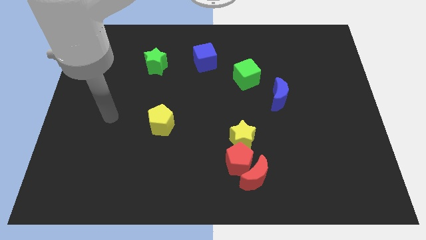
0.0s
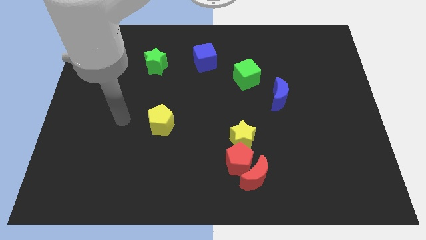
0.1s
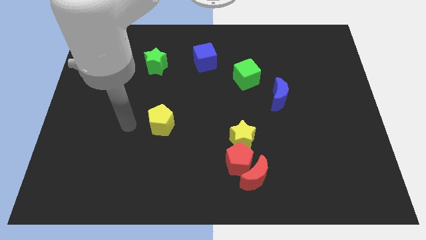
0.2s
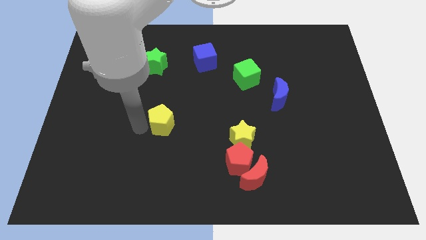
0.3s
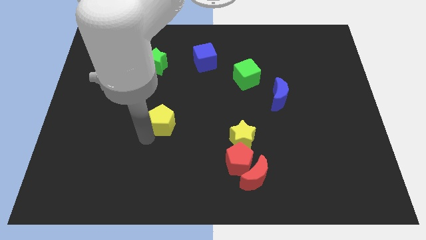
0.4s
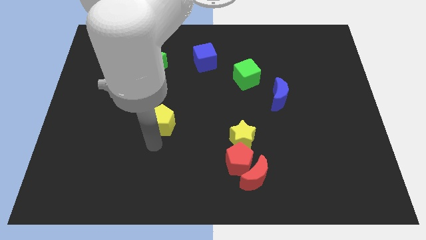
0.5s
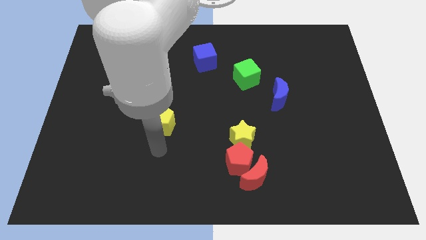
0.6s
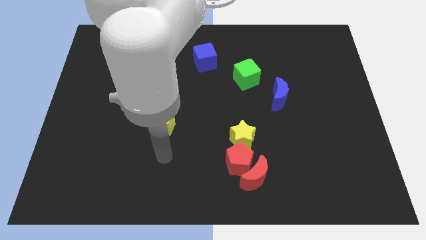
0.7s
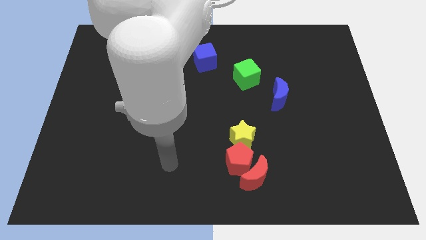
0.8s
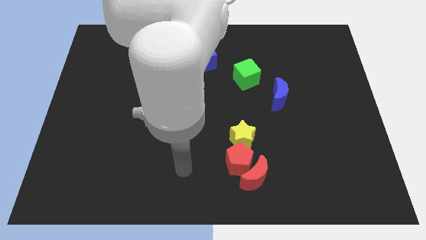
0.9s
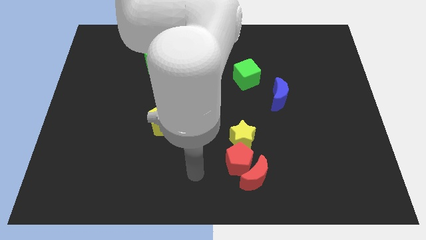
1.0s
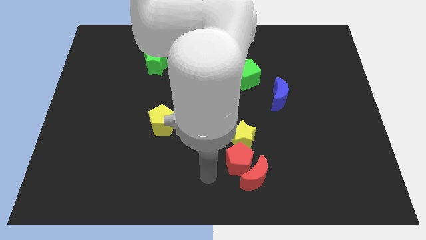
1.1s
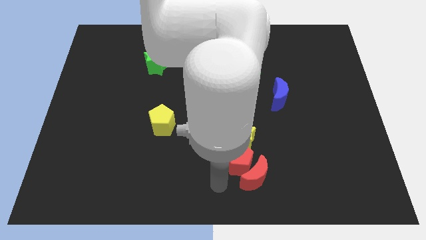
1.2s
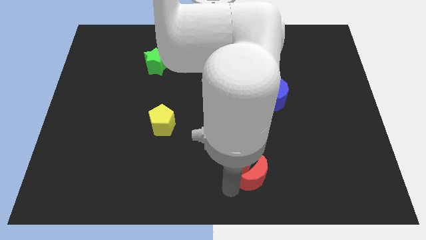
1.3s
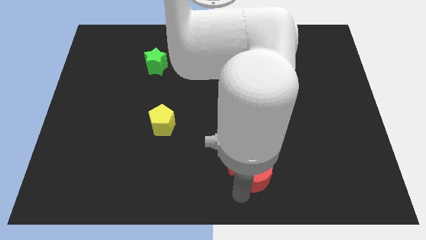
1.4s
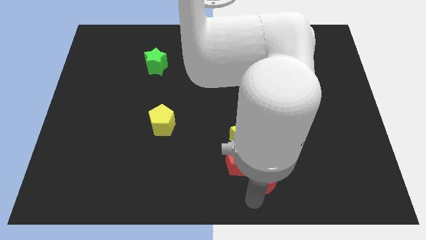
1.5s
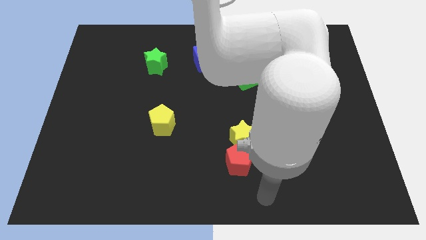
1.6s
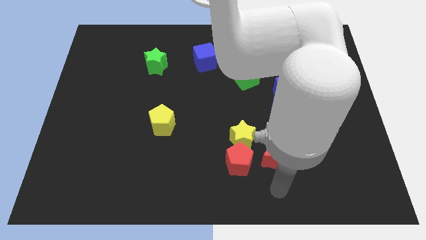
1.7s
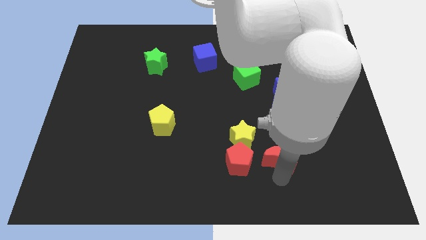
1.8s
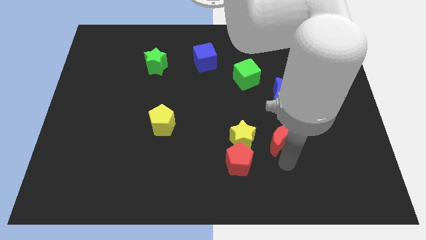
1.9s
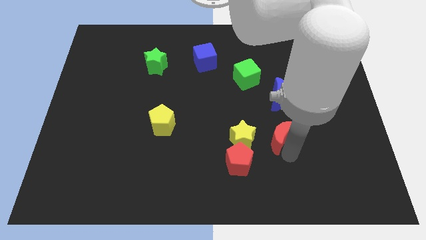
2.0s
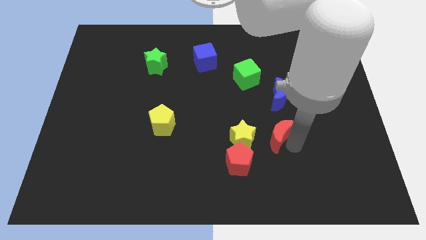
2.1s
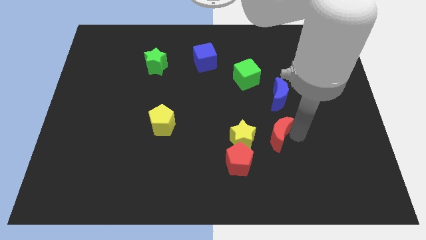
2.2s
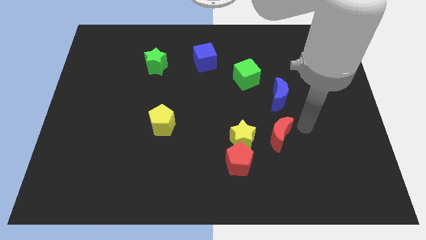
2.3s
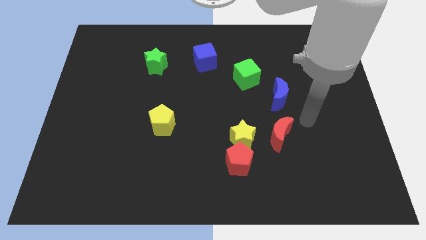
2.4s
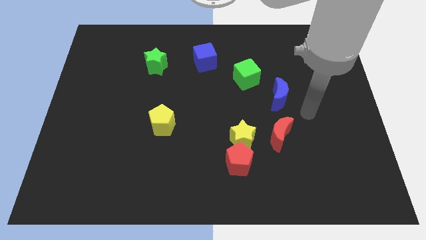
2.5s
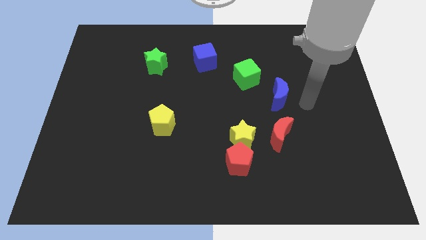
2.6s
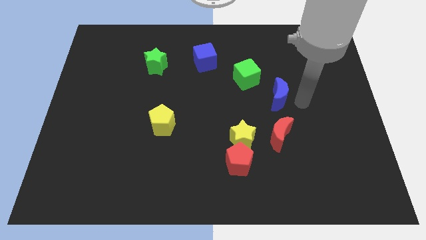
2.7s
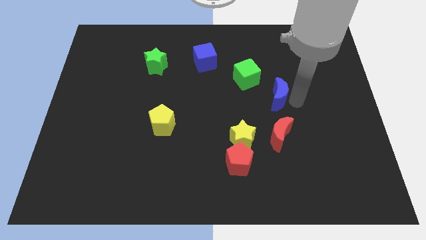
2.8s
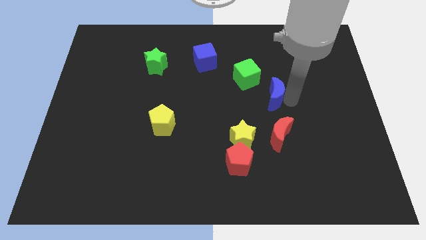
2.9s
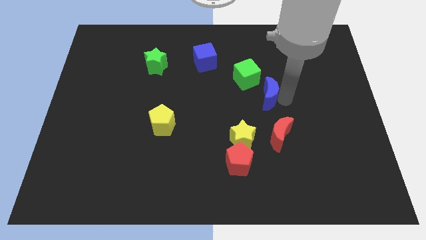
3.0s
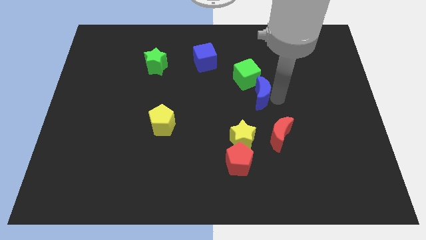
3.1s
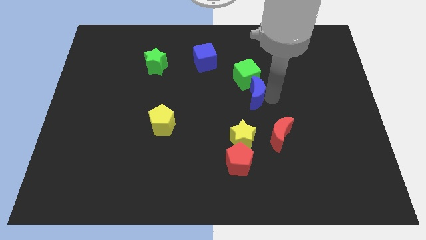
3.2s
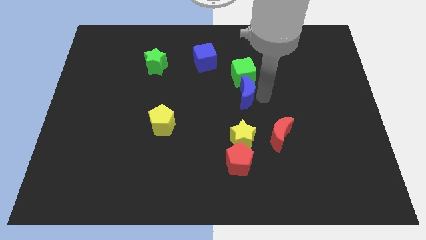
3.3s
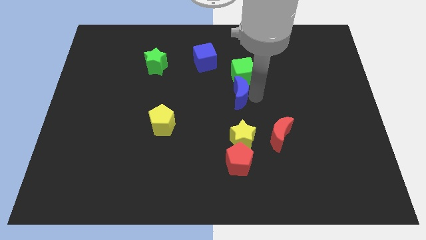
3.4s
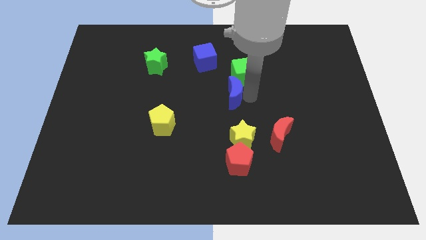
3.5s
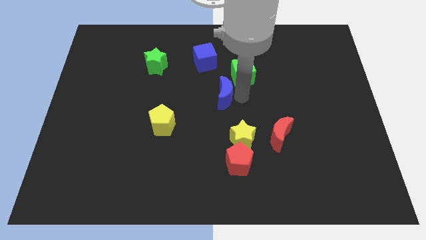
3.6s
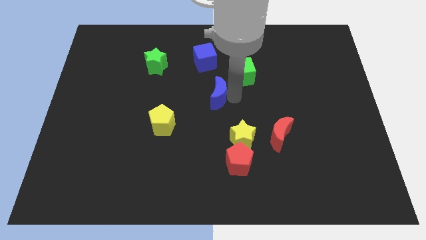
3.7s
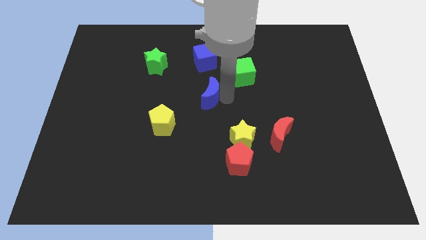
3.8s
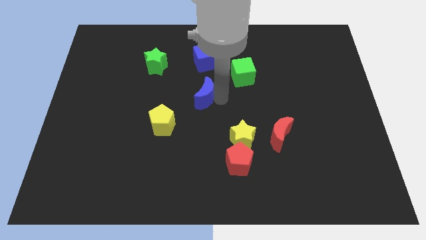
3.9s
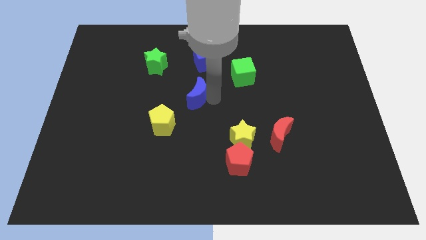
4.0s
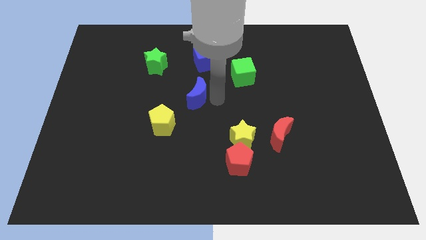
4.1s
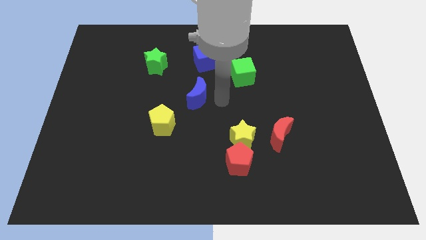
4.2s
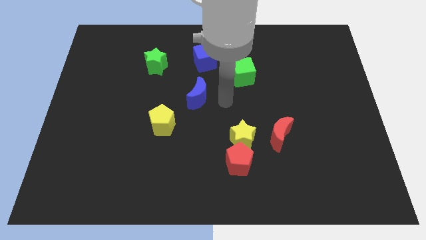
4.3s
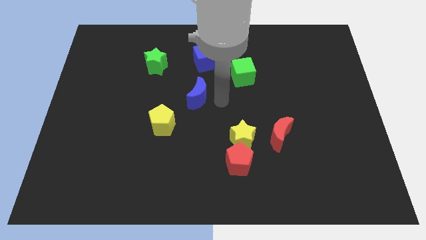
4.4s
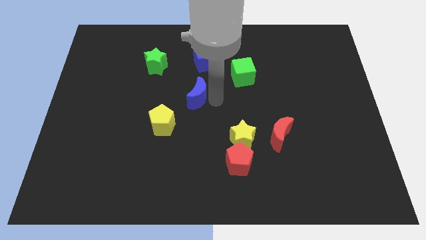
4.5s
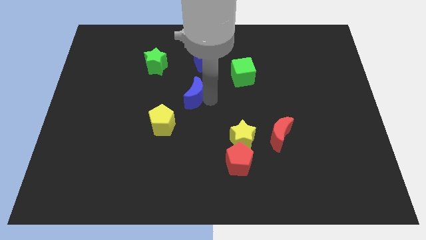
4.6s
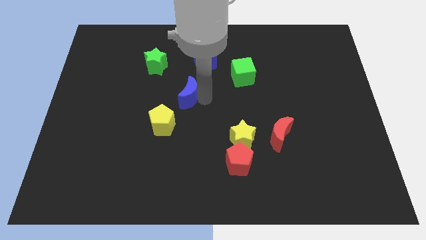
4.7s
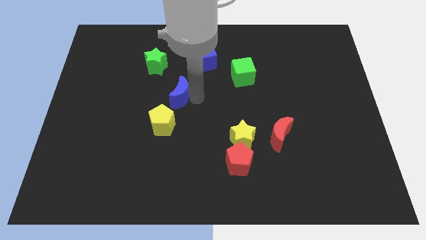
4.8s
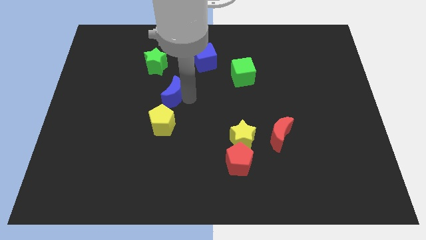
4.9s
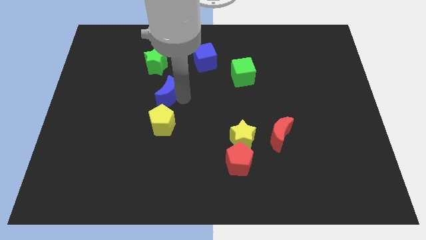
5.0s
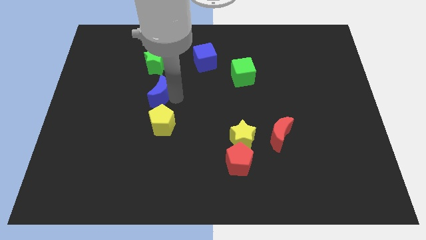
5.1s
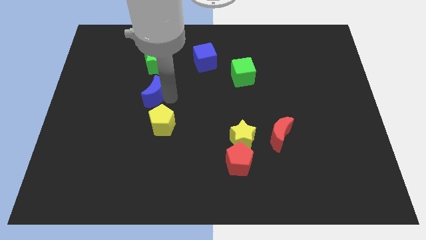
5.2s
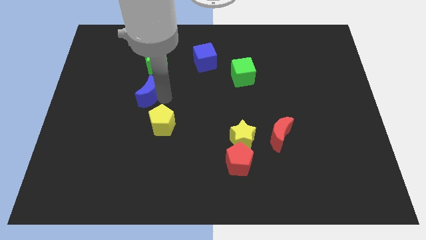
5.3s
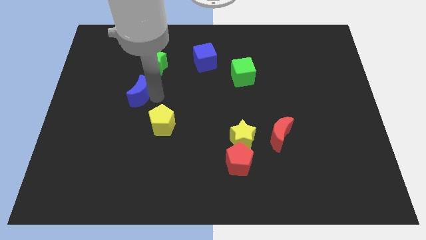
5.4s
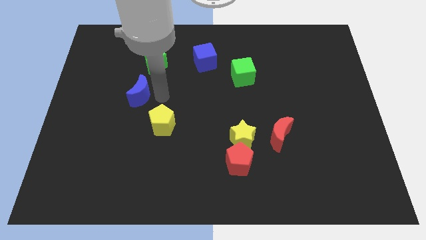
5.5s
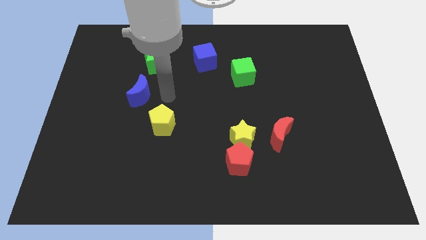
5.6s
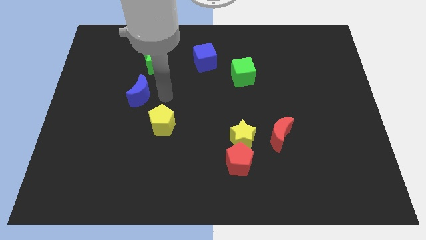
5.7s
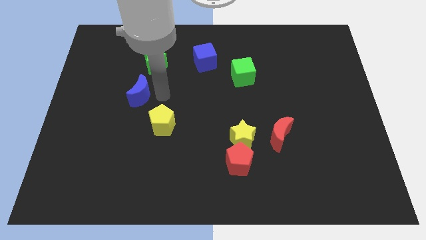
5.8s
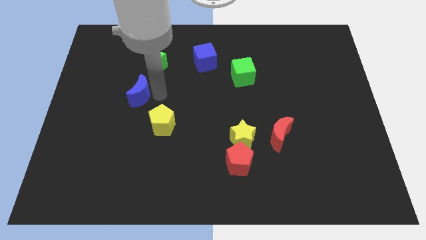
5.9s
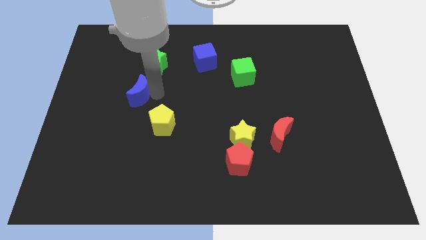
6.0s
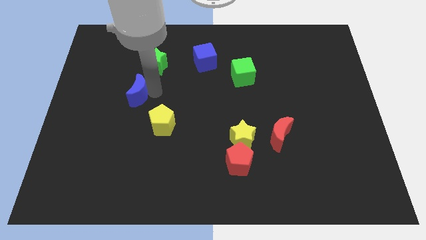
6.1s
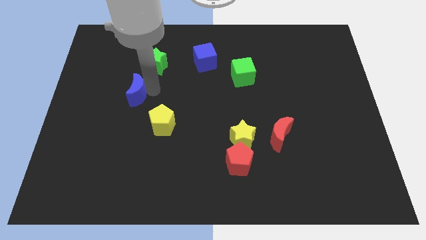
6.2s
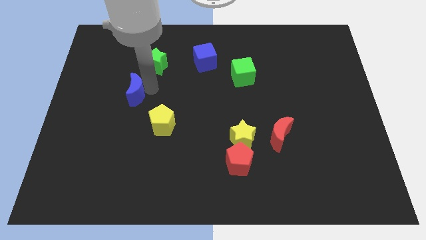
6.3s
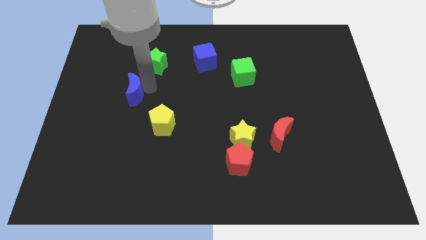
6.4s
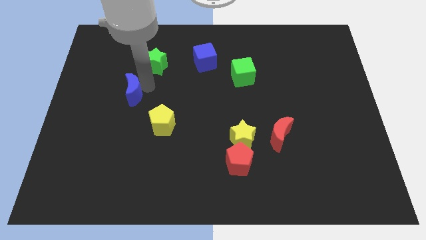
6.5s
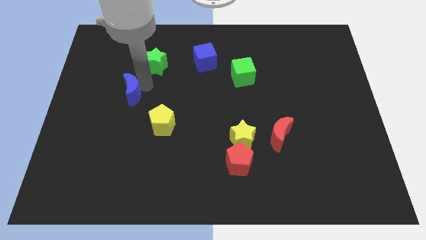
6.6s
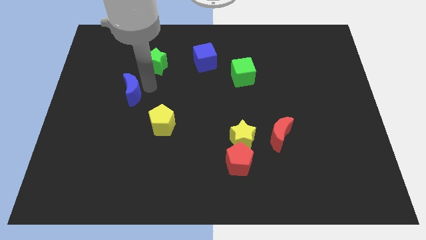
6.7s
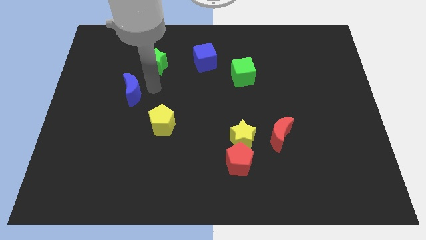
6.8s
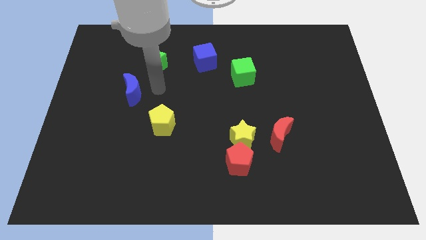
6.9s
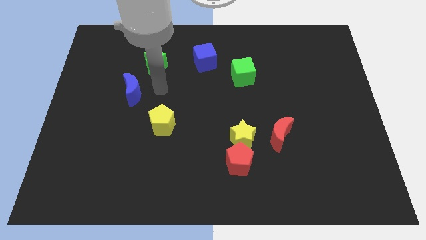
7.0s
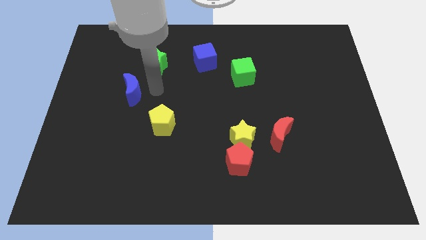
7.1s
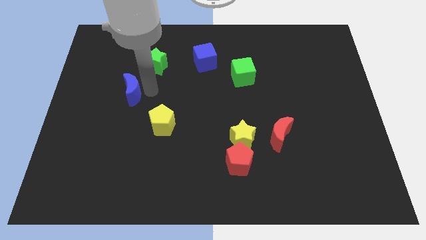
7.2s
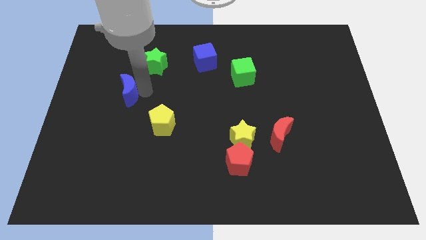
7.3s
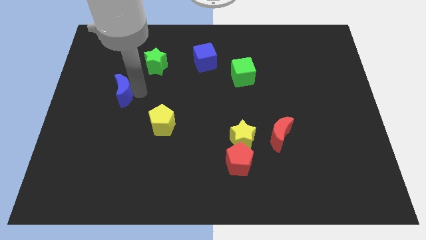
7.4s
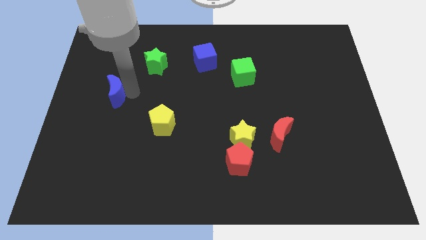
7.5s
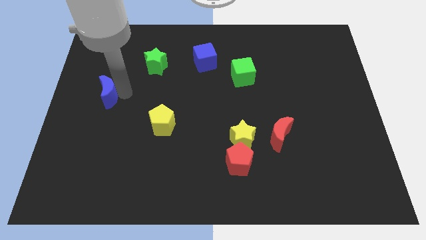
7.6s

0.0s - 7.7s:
put the blue moon to the left side of the board
